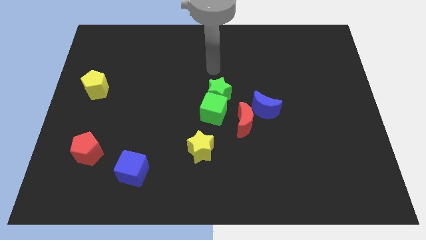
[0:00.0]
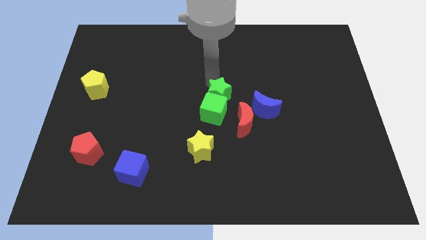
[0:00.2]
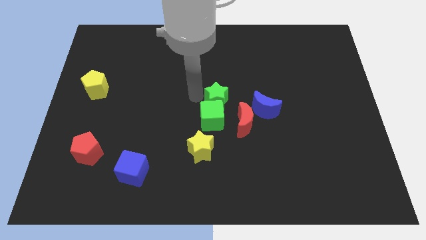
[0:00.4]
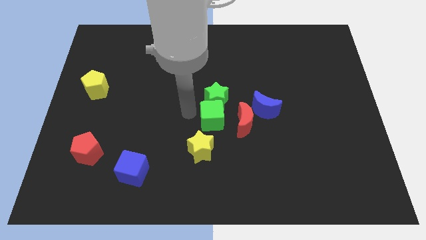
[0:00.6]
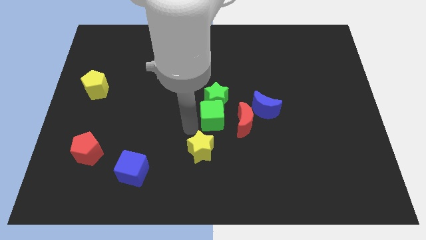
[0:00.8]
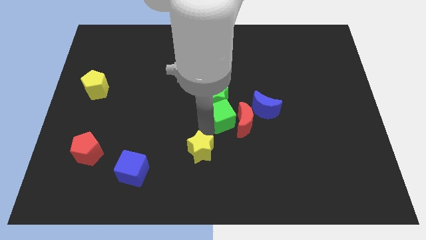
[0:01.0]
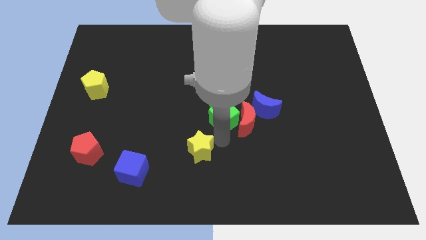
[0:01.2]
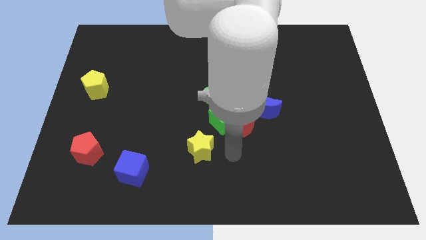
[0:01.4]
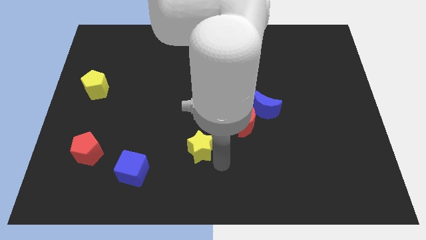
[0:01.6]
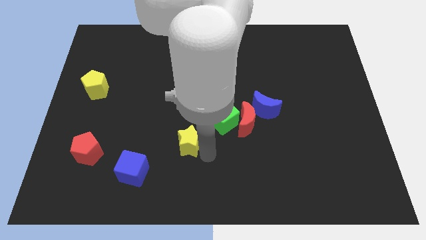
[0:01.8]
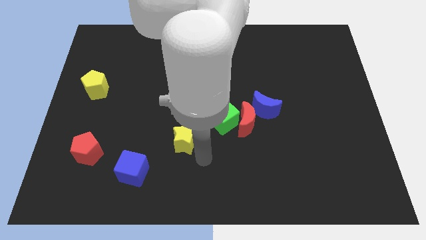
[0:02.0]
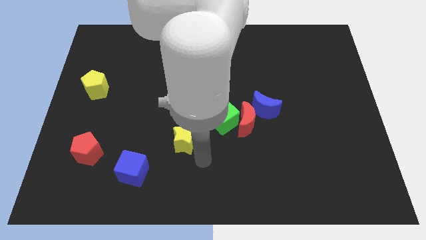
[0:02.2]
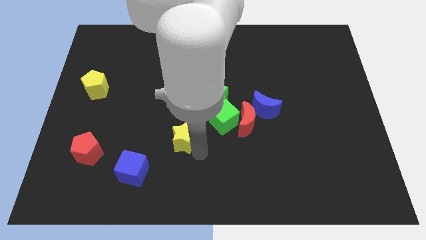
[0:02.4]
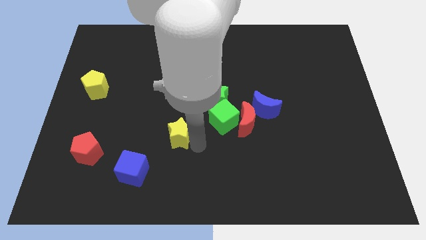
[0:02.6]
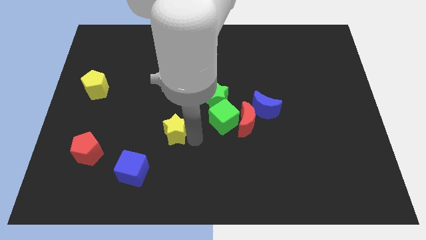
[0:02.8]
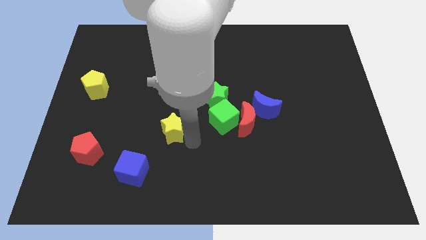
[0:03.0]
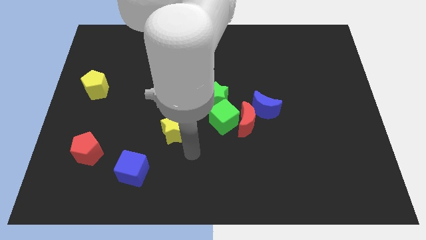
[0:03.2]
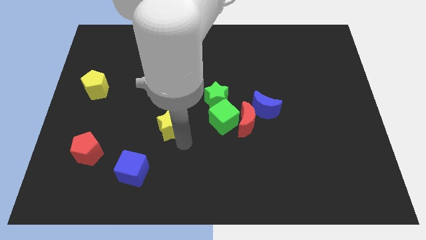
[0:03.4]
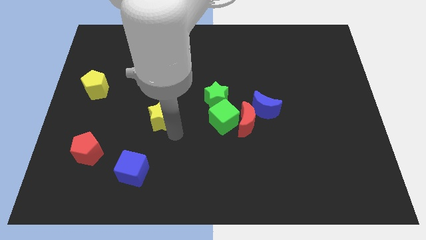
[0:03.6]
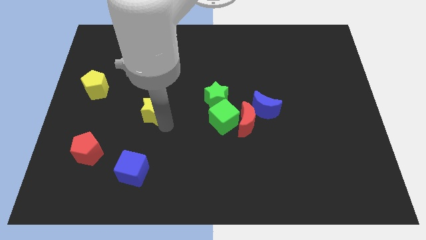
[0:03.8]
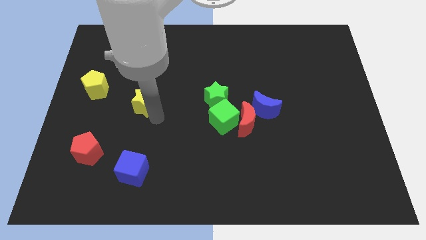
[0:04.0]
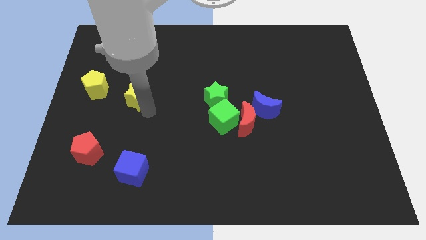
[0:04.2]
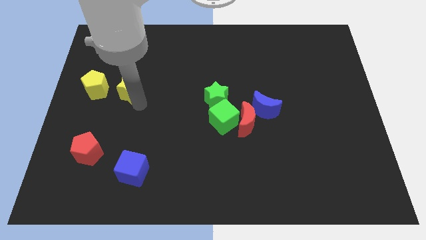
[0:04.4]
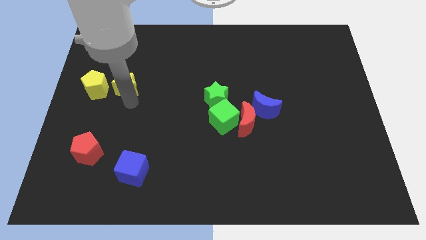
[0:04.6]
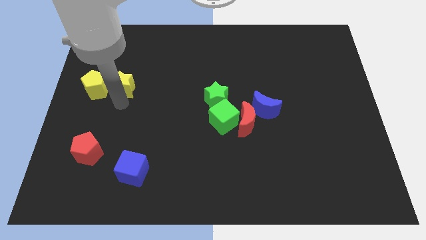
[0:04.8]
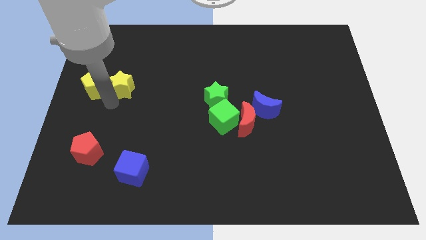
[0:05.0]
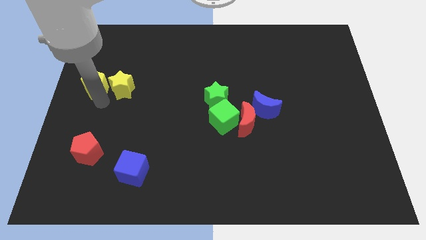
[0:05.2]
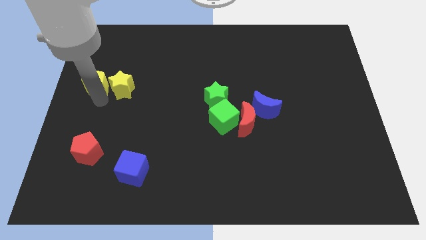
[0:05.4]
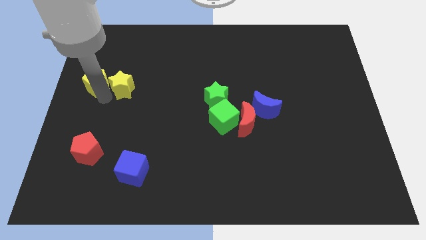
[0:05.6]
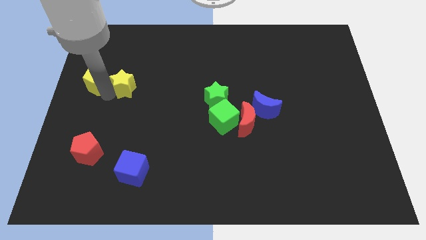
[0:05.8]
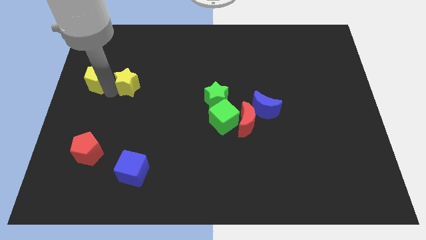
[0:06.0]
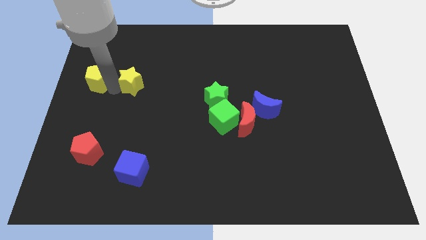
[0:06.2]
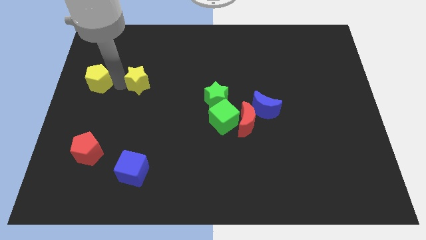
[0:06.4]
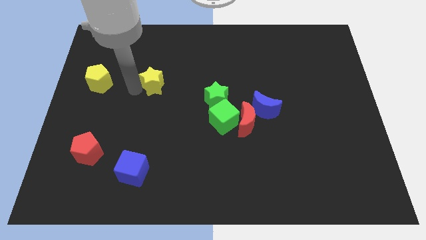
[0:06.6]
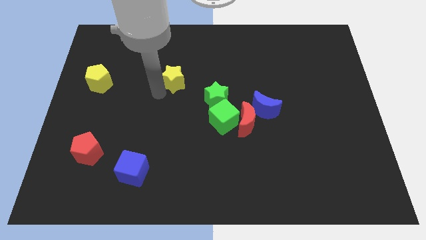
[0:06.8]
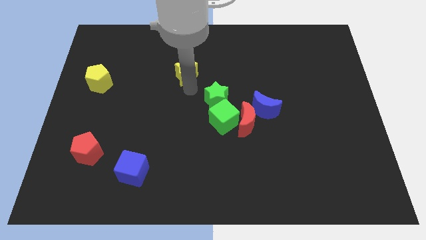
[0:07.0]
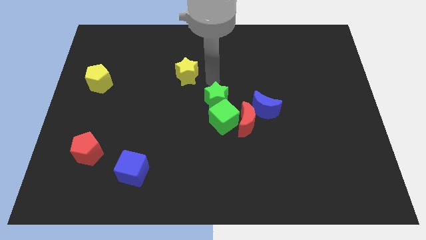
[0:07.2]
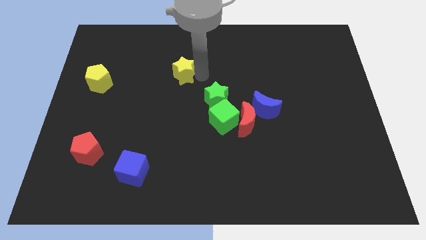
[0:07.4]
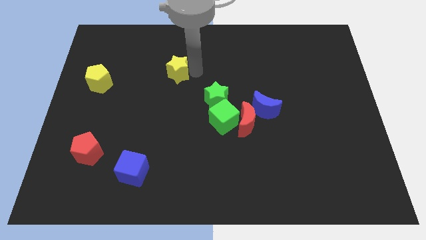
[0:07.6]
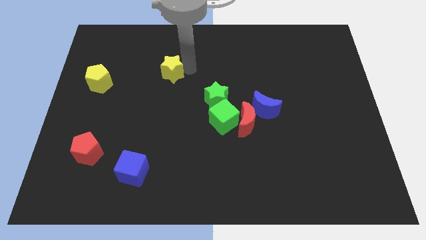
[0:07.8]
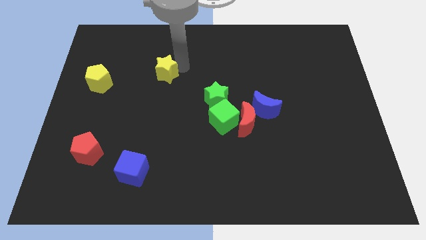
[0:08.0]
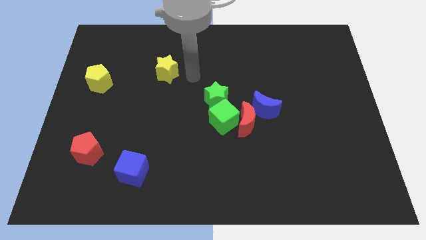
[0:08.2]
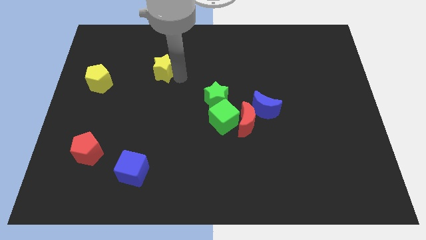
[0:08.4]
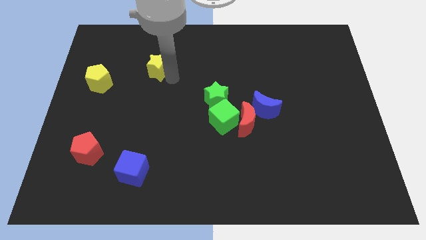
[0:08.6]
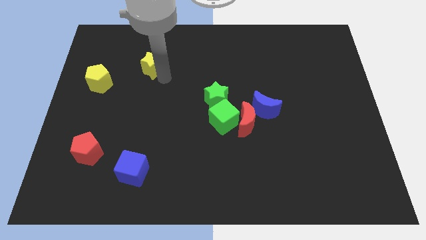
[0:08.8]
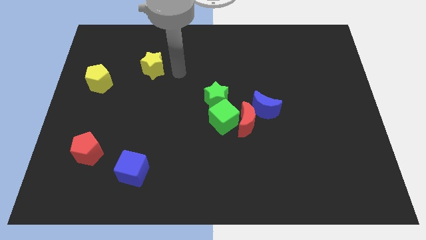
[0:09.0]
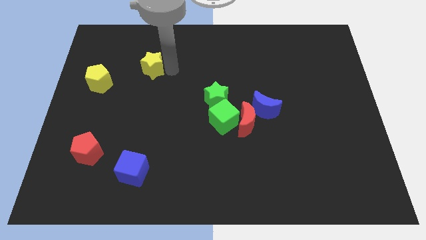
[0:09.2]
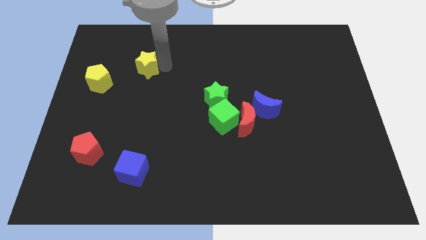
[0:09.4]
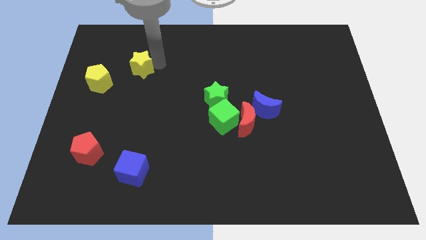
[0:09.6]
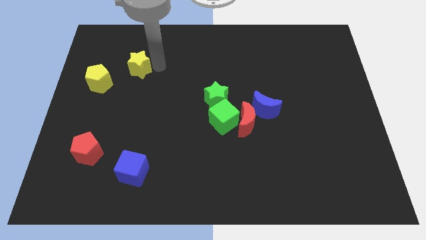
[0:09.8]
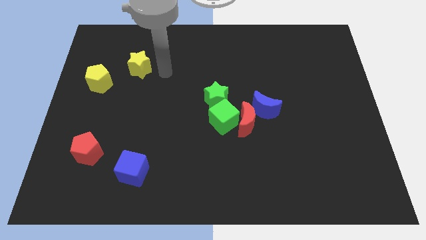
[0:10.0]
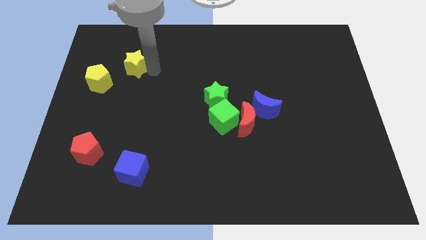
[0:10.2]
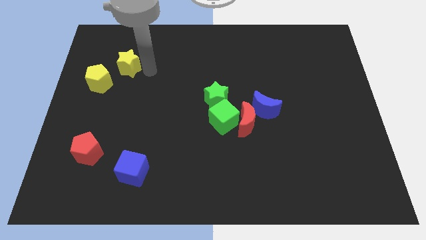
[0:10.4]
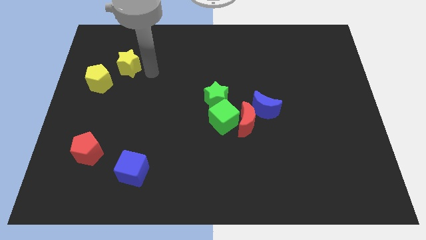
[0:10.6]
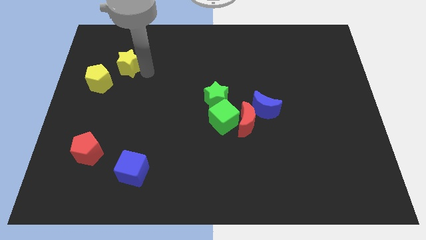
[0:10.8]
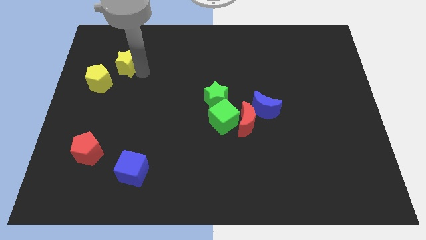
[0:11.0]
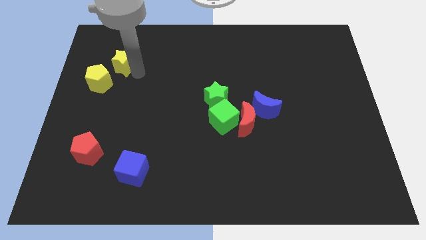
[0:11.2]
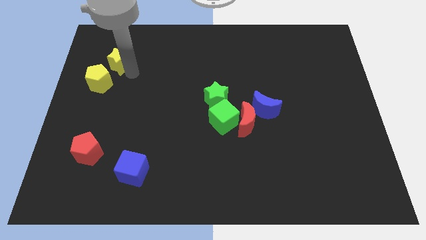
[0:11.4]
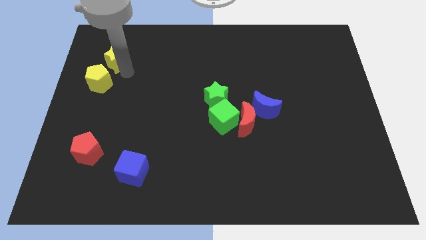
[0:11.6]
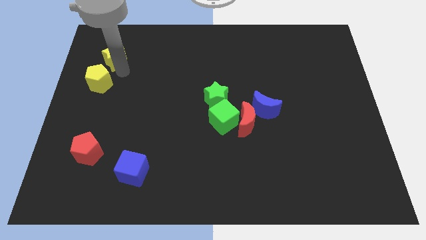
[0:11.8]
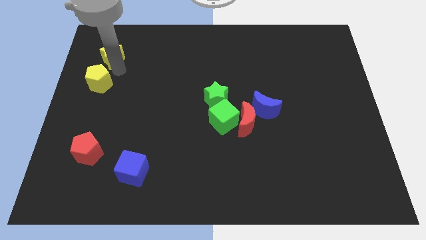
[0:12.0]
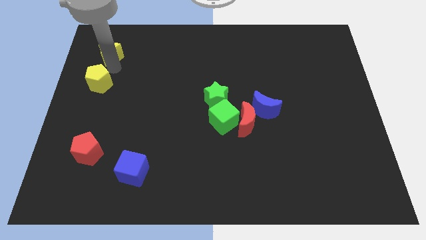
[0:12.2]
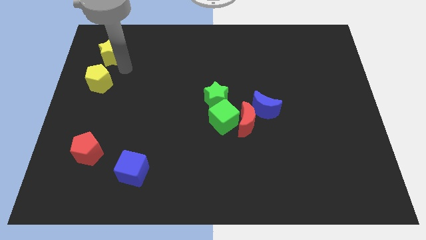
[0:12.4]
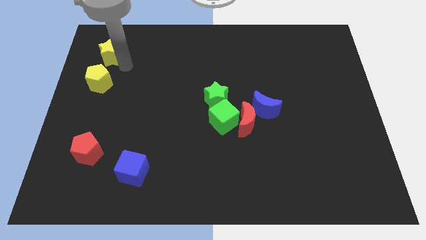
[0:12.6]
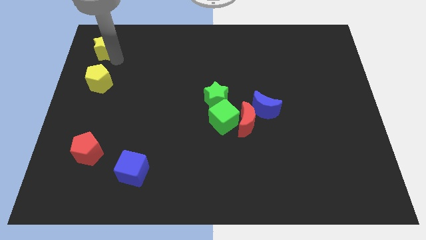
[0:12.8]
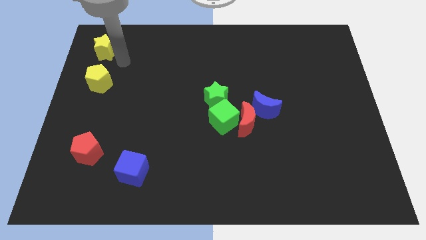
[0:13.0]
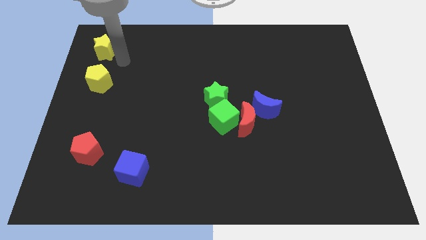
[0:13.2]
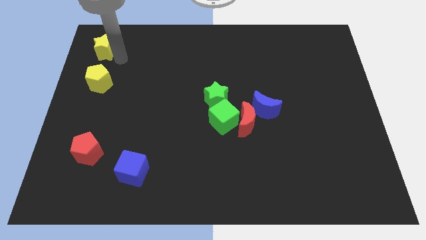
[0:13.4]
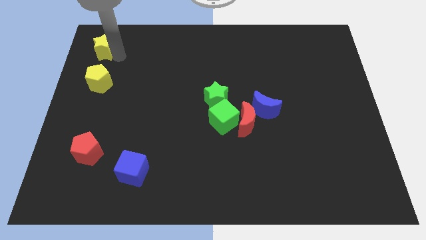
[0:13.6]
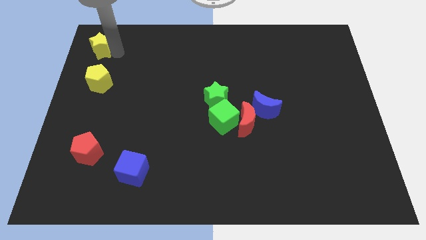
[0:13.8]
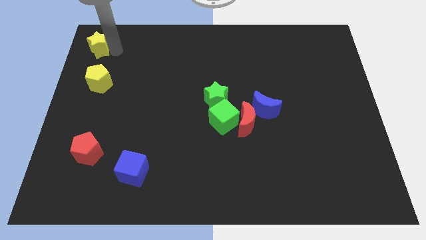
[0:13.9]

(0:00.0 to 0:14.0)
put the yellow star to the upper left corner
